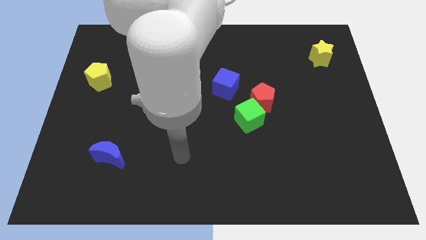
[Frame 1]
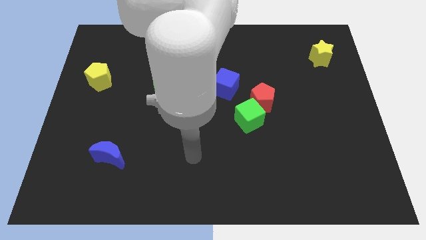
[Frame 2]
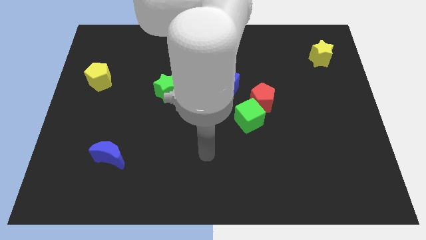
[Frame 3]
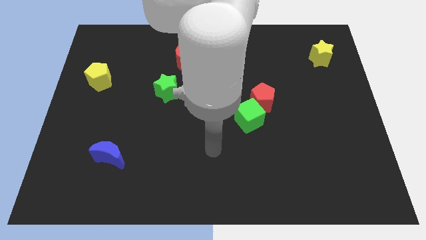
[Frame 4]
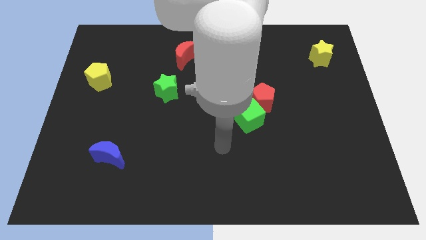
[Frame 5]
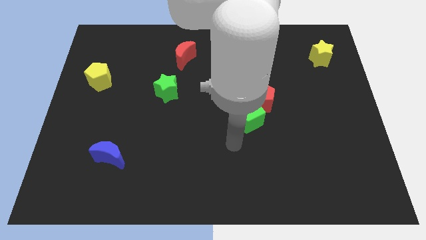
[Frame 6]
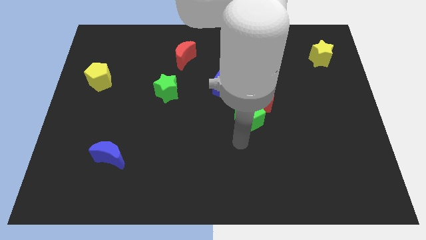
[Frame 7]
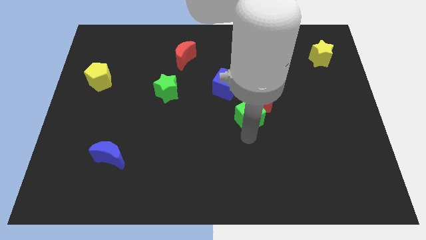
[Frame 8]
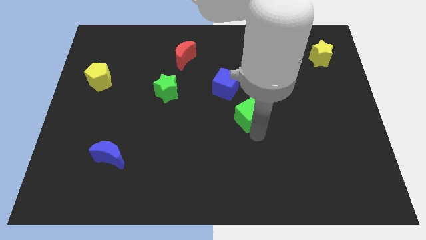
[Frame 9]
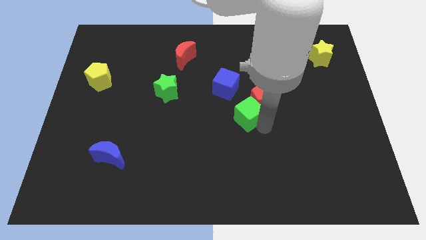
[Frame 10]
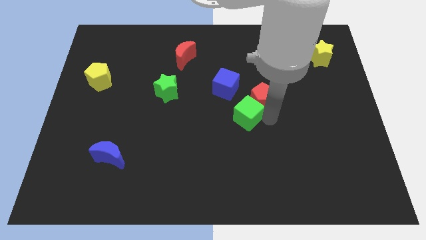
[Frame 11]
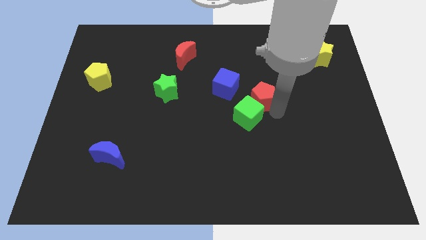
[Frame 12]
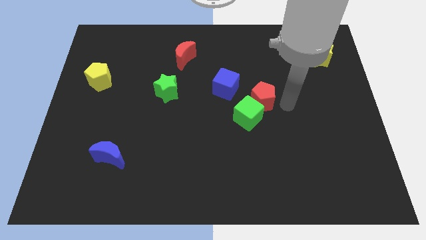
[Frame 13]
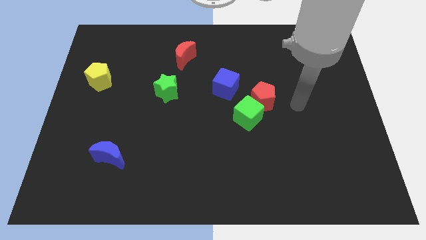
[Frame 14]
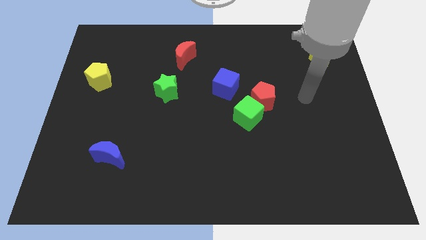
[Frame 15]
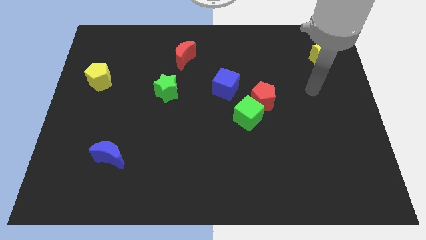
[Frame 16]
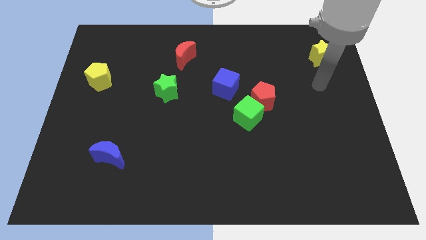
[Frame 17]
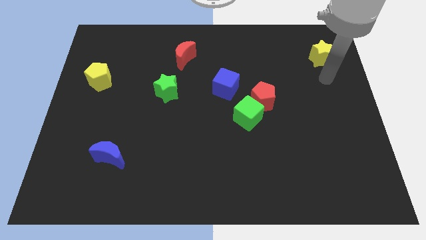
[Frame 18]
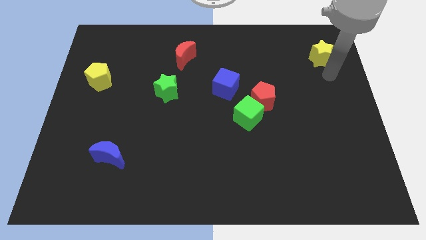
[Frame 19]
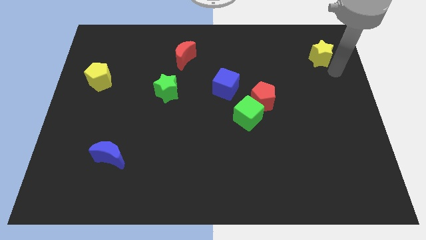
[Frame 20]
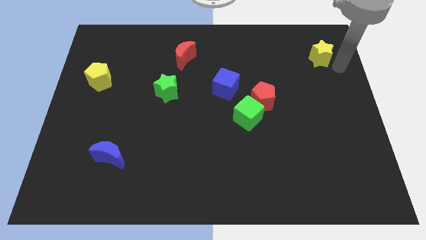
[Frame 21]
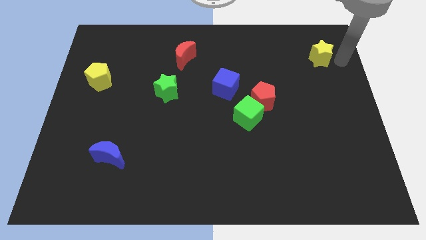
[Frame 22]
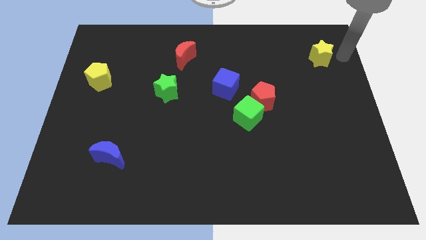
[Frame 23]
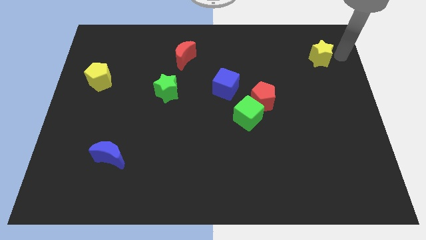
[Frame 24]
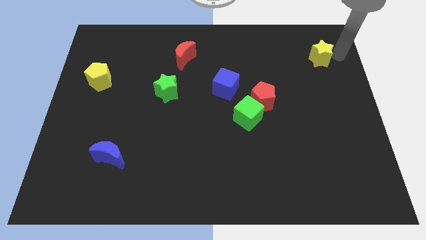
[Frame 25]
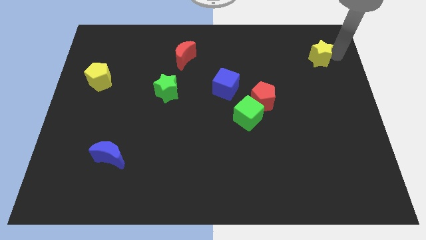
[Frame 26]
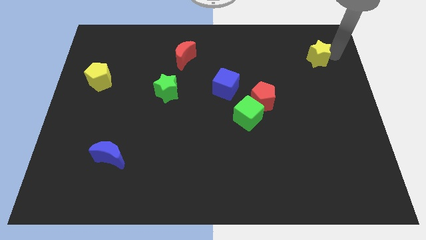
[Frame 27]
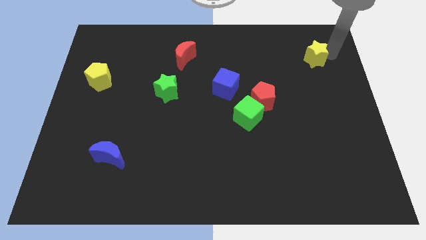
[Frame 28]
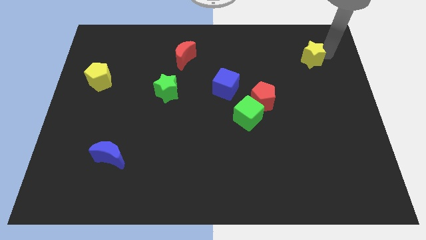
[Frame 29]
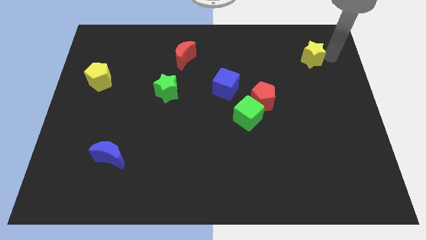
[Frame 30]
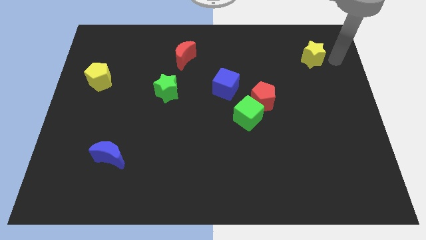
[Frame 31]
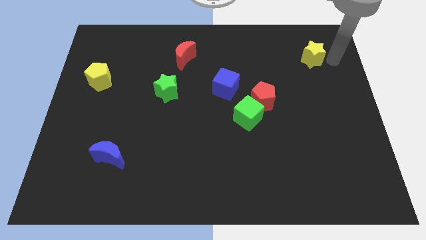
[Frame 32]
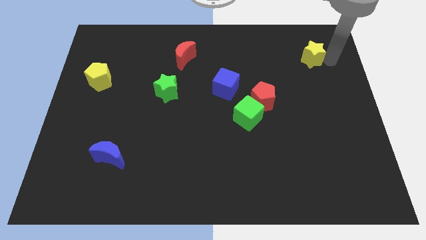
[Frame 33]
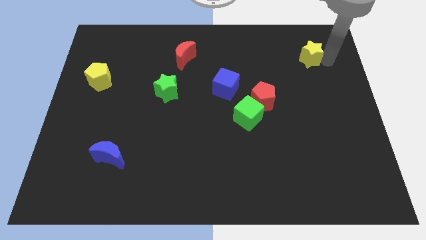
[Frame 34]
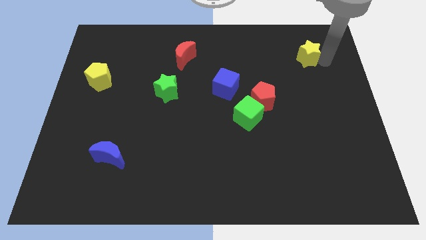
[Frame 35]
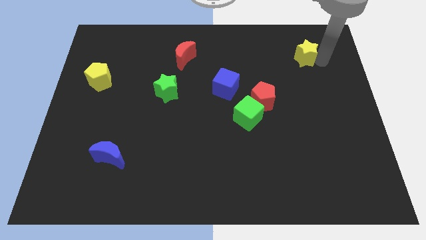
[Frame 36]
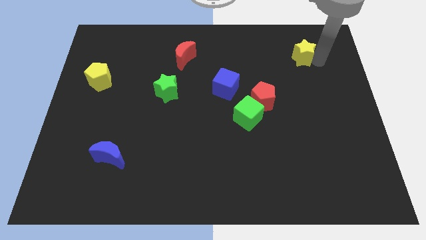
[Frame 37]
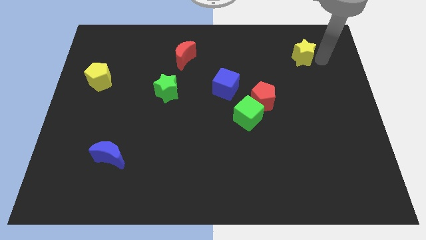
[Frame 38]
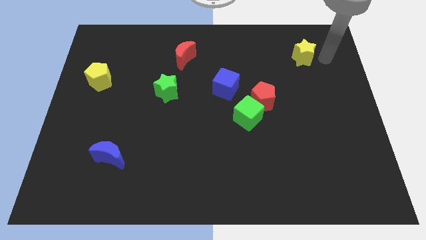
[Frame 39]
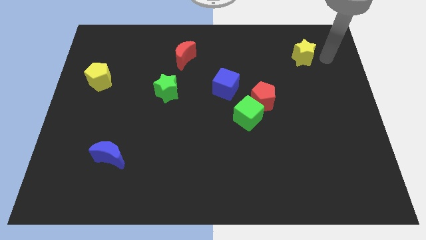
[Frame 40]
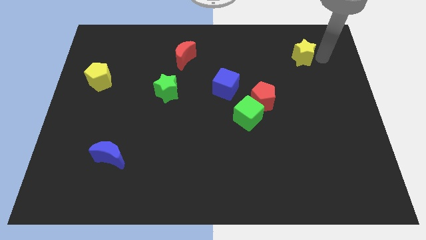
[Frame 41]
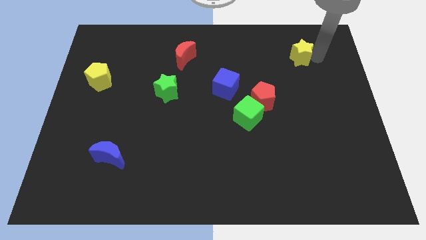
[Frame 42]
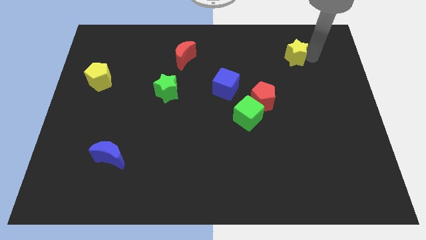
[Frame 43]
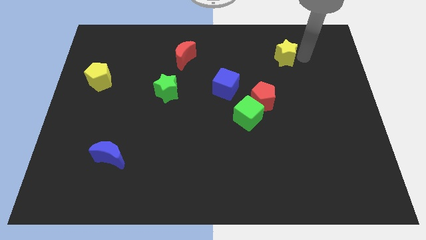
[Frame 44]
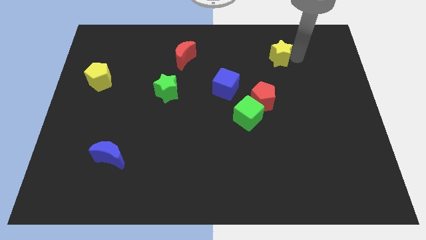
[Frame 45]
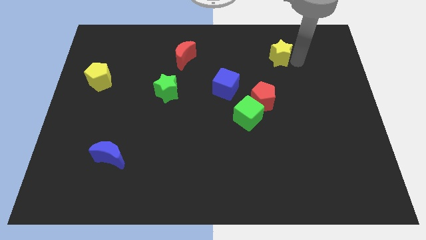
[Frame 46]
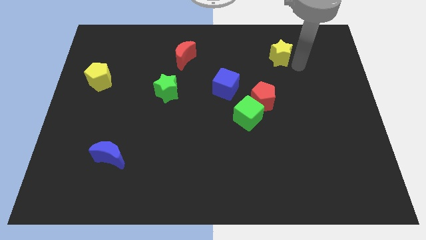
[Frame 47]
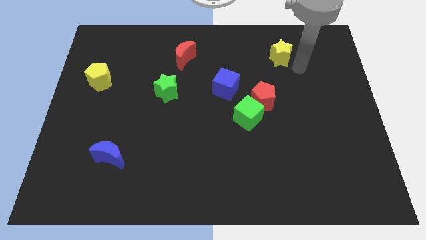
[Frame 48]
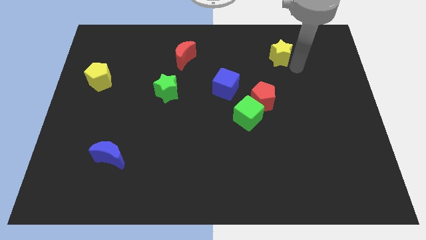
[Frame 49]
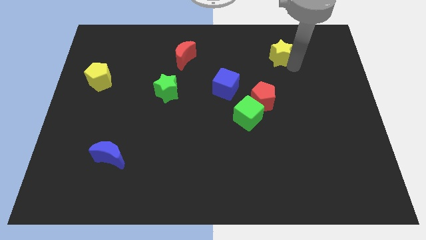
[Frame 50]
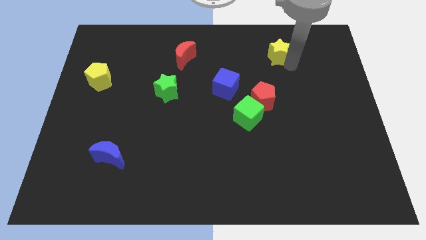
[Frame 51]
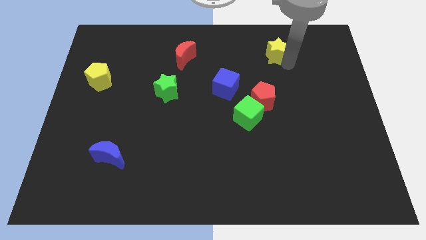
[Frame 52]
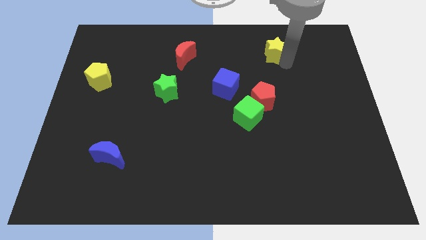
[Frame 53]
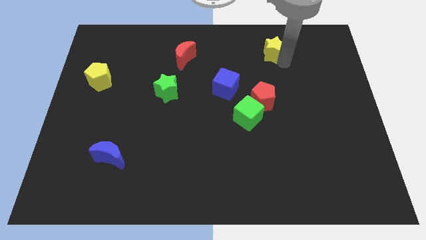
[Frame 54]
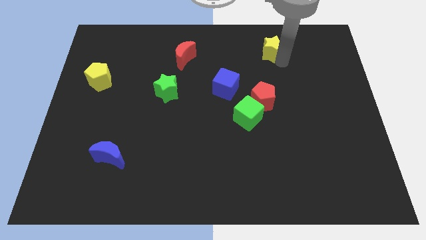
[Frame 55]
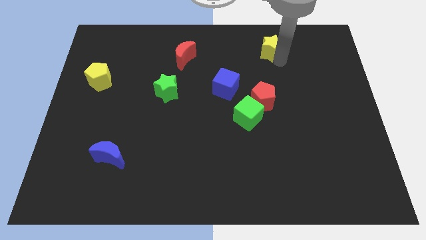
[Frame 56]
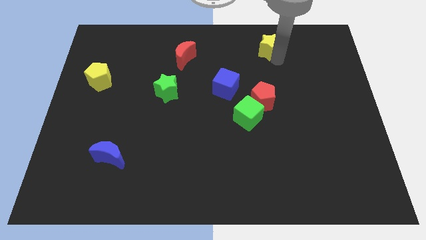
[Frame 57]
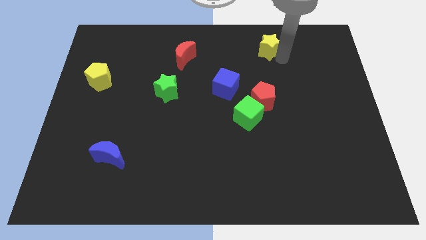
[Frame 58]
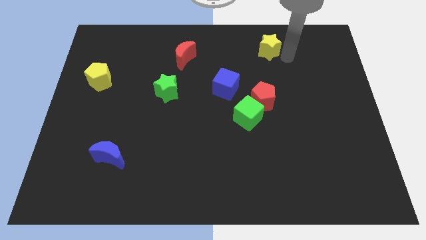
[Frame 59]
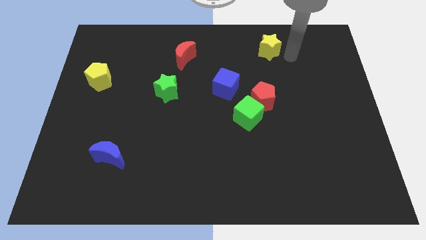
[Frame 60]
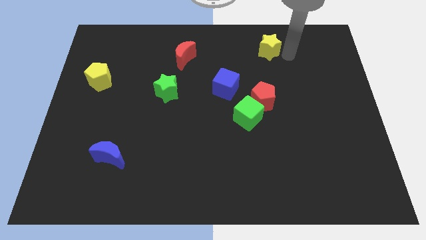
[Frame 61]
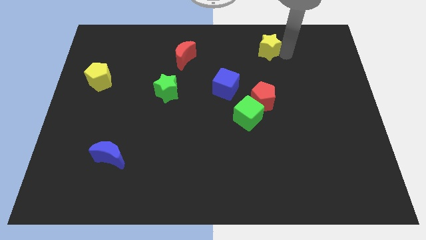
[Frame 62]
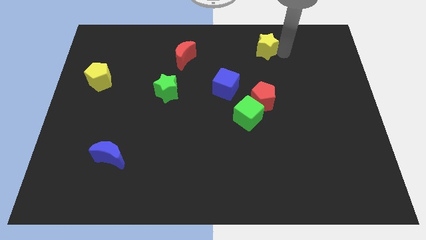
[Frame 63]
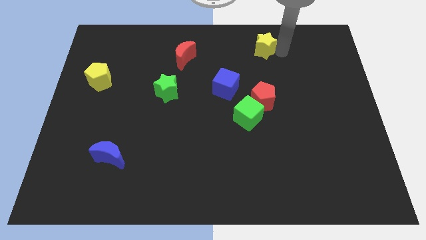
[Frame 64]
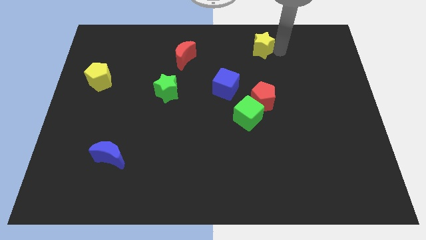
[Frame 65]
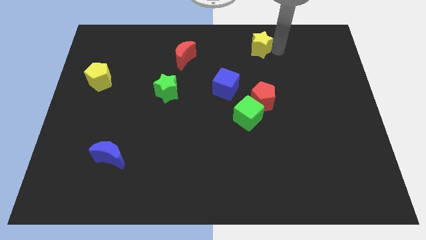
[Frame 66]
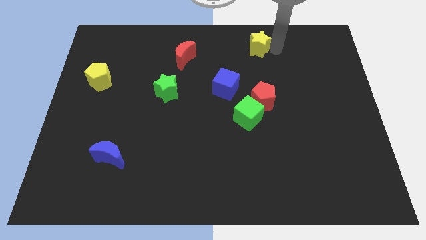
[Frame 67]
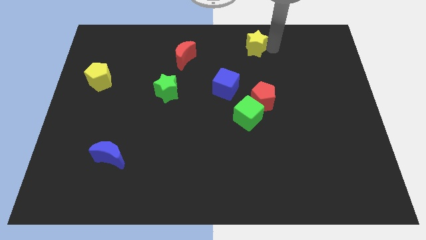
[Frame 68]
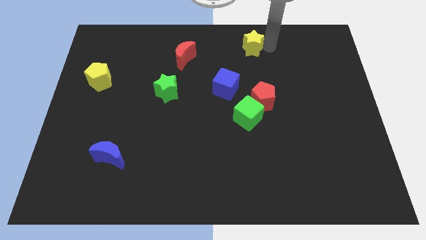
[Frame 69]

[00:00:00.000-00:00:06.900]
put the yellow star to the towards your base
